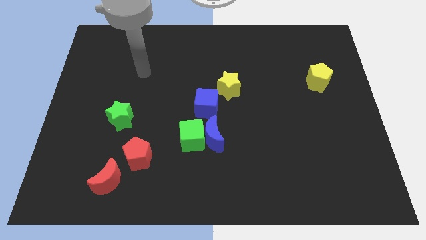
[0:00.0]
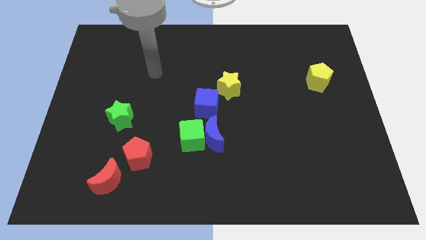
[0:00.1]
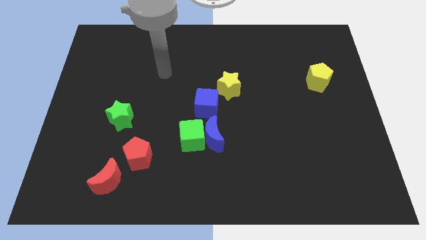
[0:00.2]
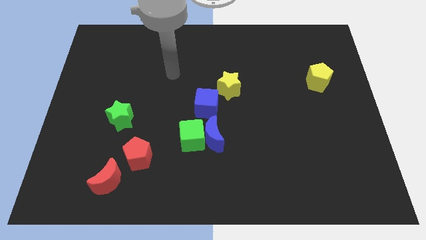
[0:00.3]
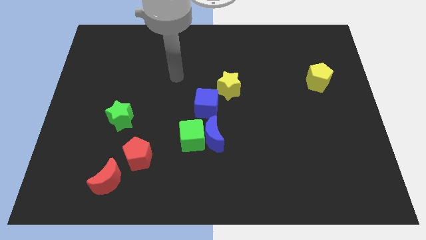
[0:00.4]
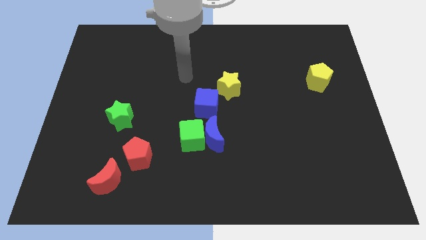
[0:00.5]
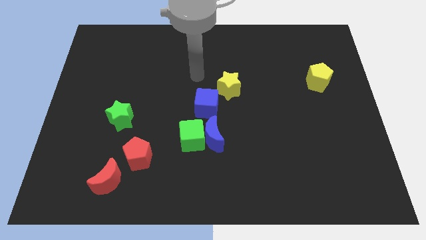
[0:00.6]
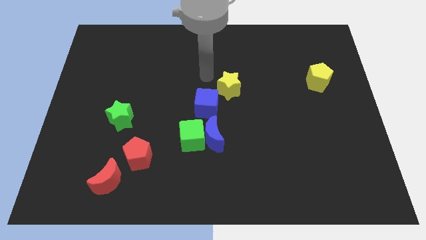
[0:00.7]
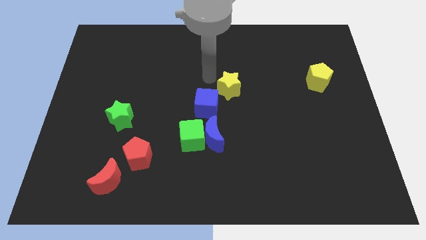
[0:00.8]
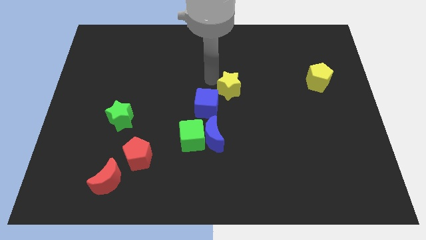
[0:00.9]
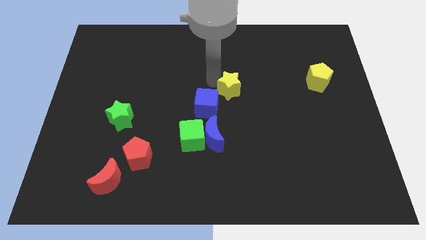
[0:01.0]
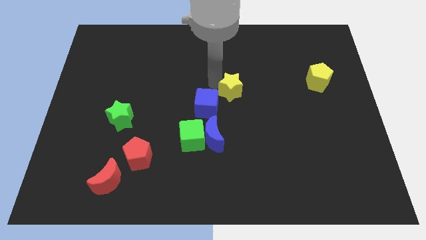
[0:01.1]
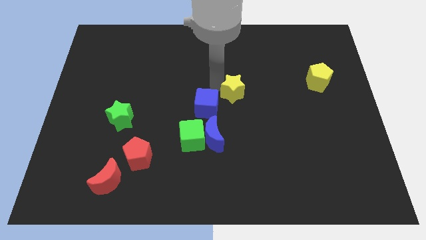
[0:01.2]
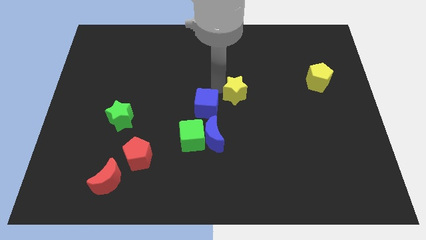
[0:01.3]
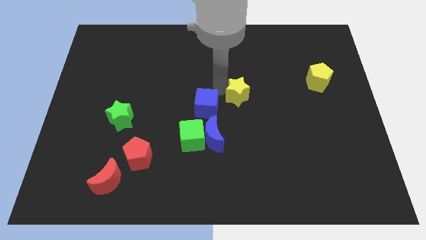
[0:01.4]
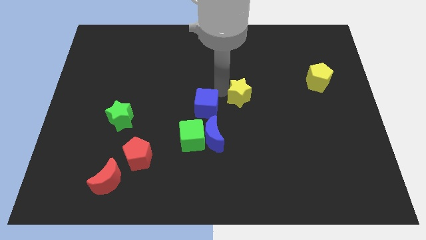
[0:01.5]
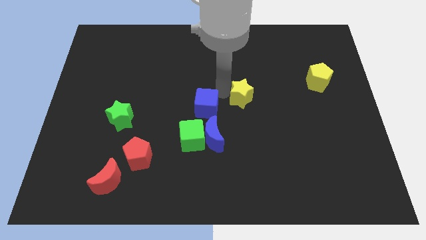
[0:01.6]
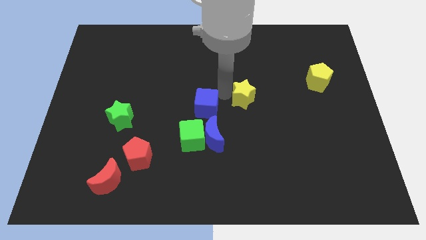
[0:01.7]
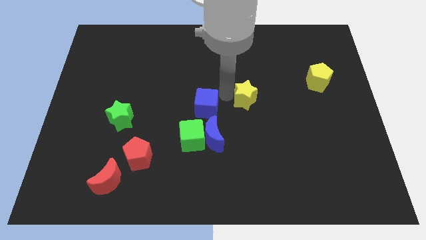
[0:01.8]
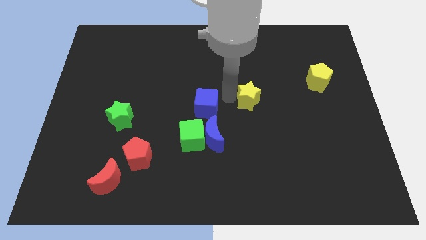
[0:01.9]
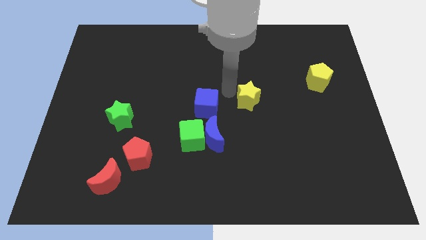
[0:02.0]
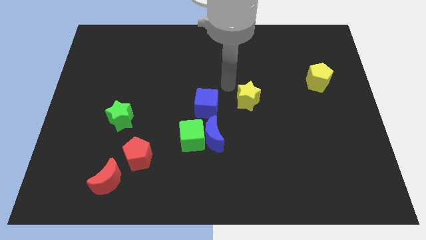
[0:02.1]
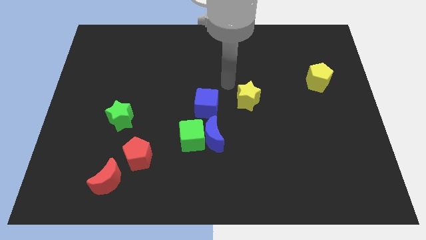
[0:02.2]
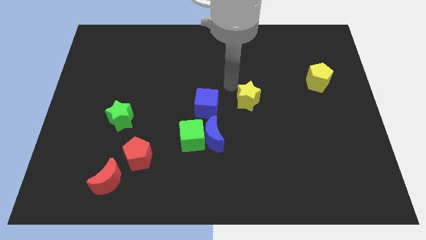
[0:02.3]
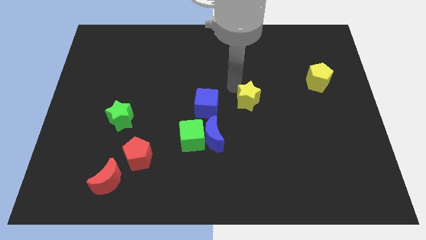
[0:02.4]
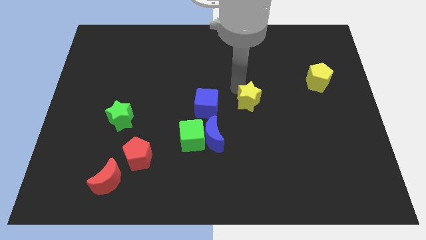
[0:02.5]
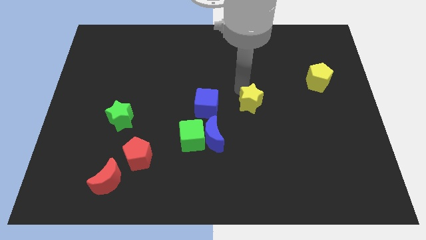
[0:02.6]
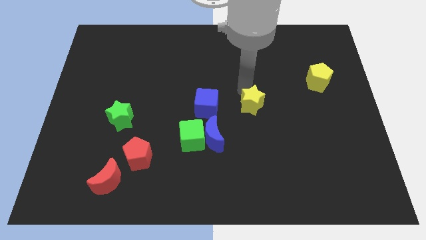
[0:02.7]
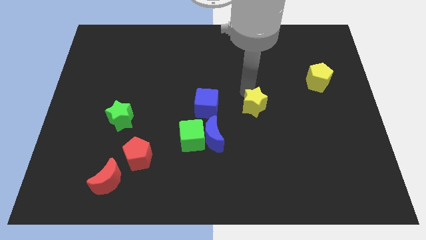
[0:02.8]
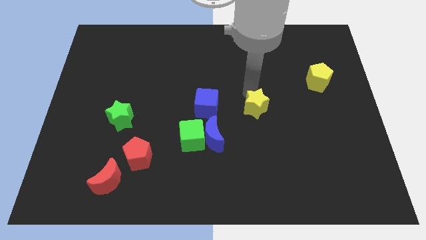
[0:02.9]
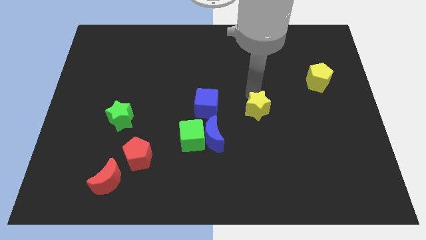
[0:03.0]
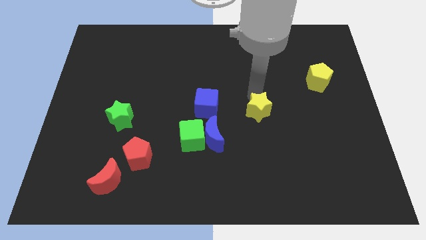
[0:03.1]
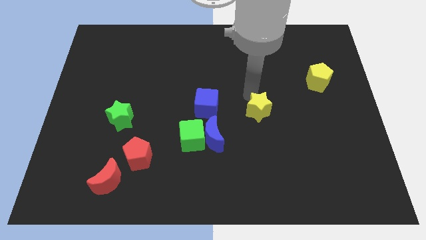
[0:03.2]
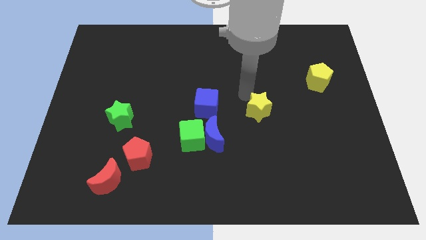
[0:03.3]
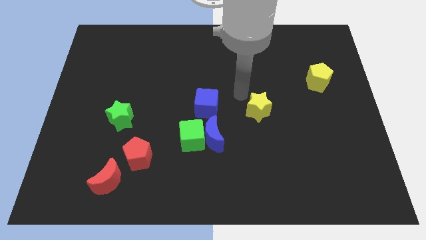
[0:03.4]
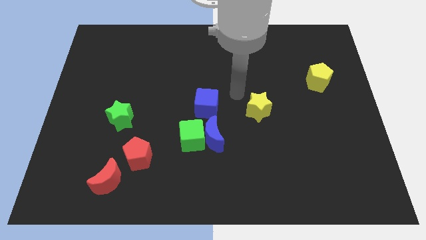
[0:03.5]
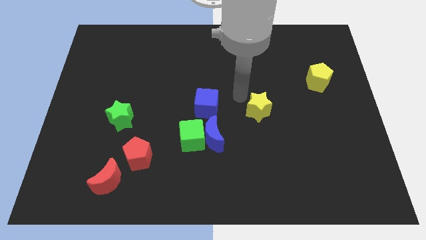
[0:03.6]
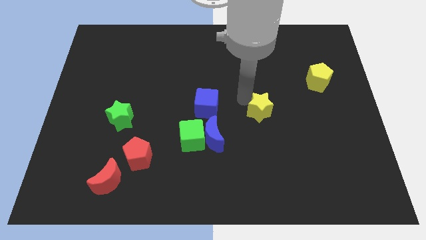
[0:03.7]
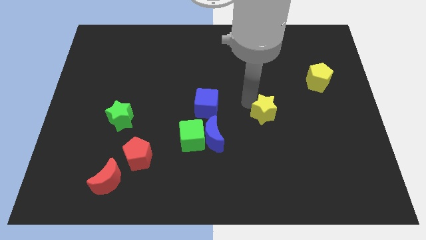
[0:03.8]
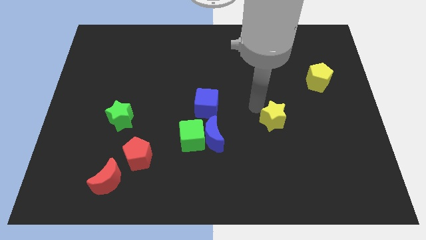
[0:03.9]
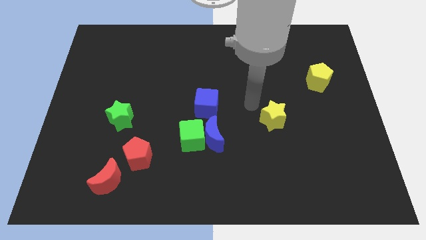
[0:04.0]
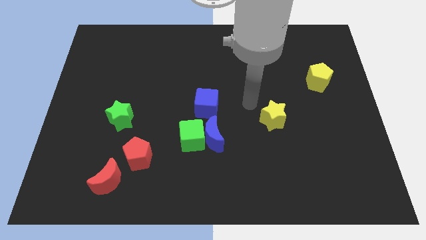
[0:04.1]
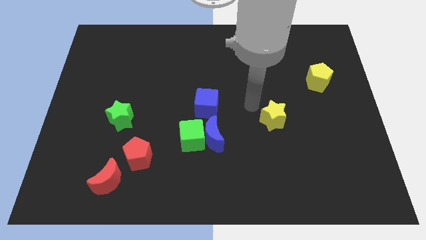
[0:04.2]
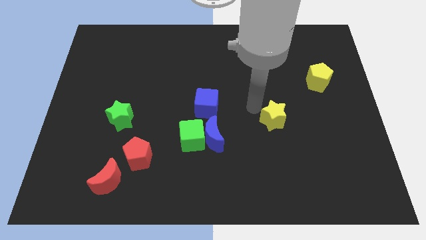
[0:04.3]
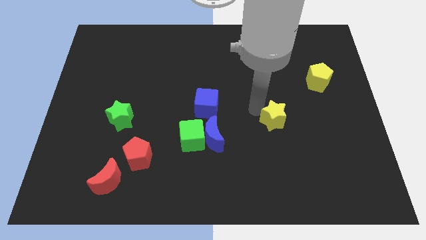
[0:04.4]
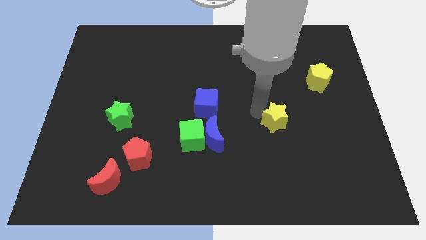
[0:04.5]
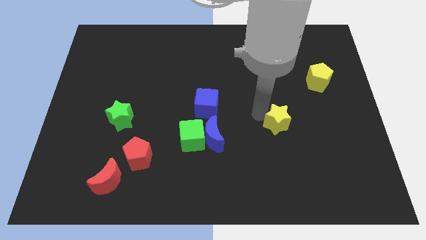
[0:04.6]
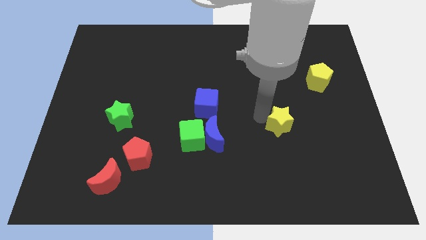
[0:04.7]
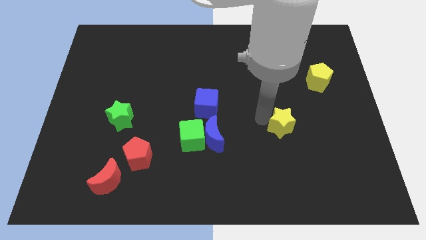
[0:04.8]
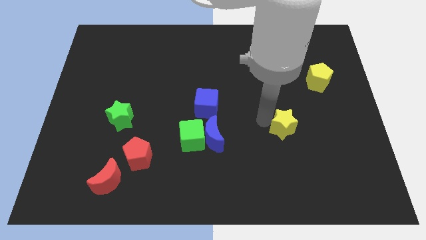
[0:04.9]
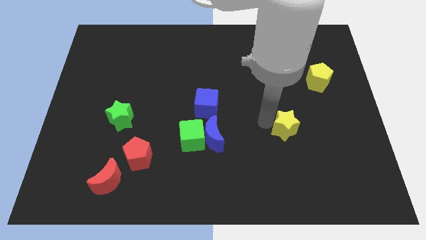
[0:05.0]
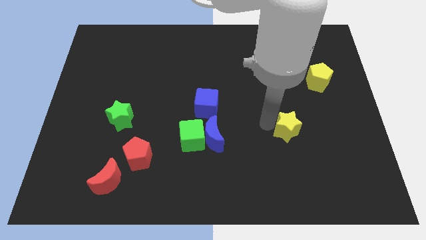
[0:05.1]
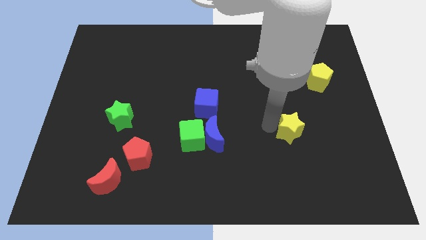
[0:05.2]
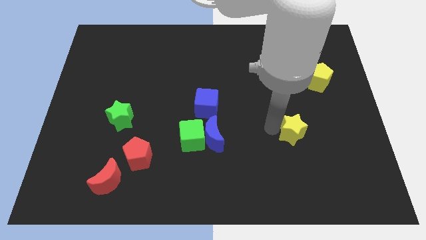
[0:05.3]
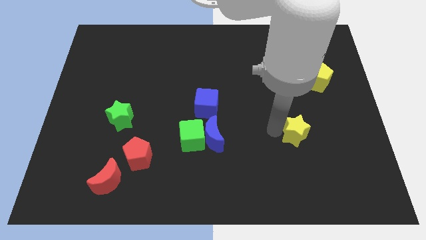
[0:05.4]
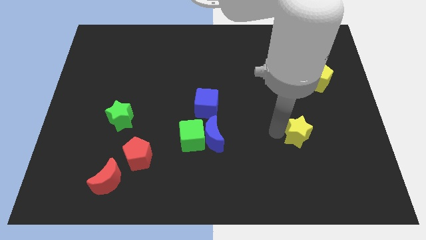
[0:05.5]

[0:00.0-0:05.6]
push the yellow star diagonally down and to the right

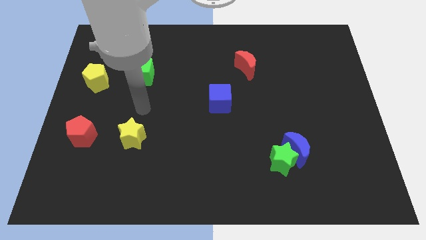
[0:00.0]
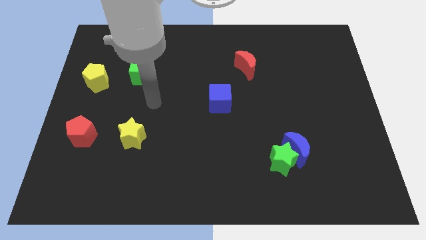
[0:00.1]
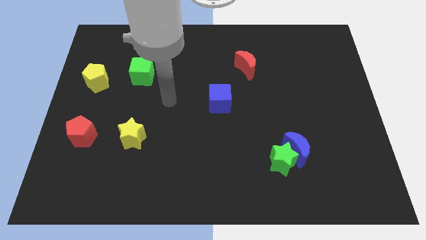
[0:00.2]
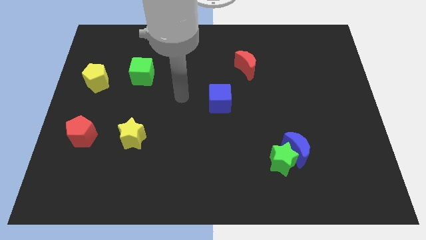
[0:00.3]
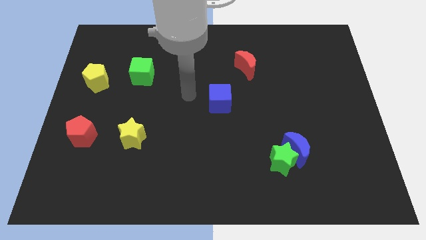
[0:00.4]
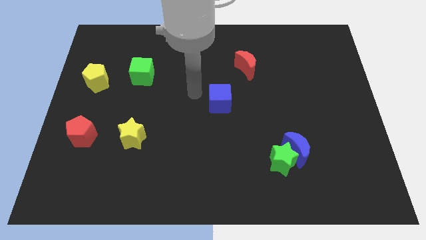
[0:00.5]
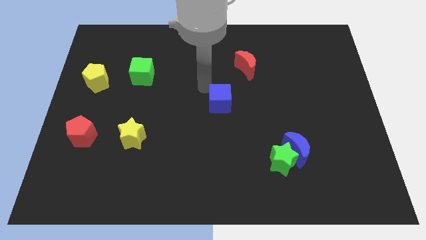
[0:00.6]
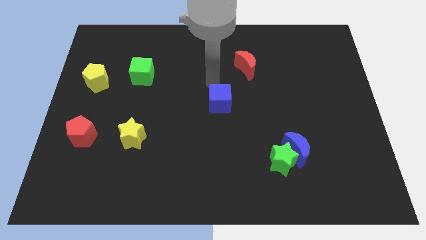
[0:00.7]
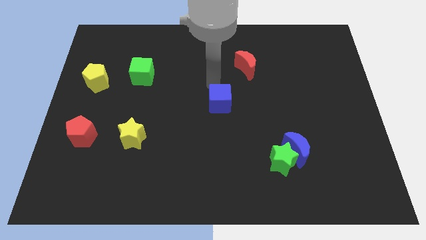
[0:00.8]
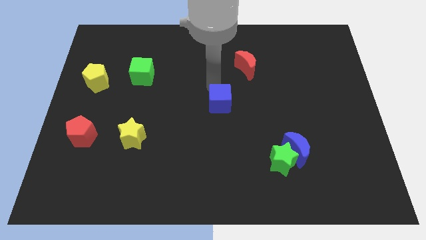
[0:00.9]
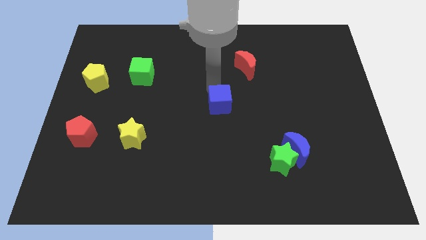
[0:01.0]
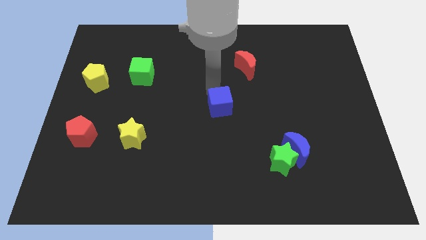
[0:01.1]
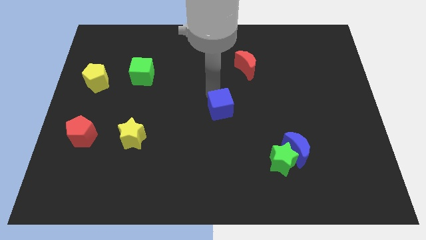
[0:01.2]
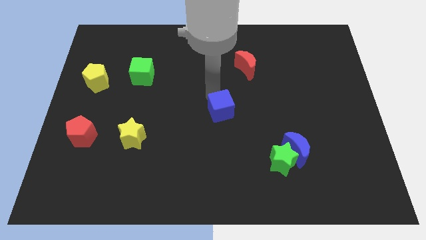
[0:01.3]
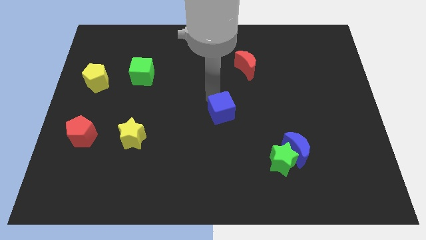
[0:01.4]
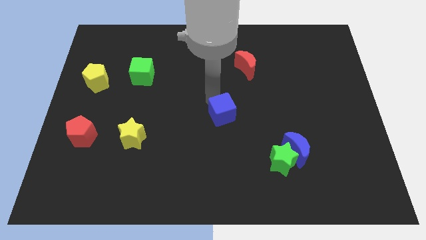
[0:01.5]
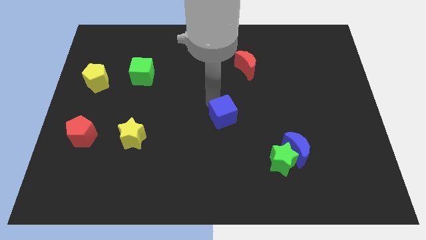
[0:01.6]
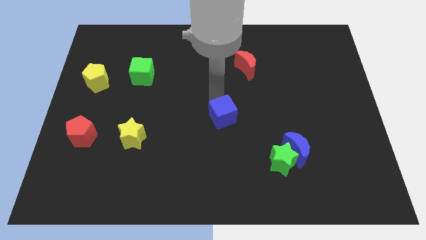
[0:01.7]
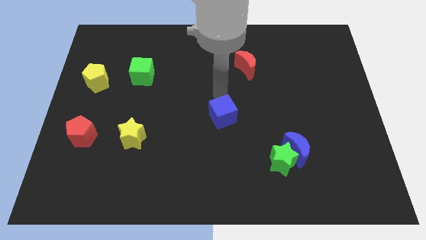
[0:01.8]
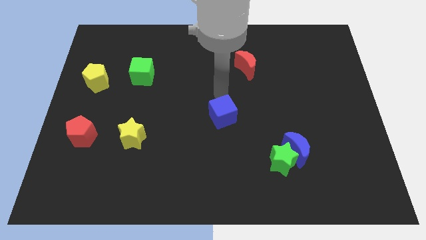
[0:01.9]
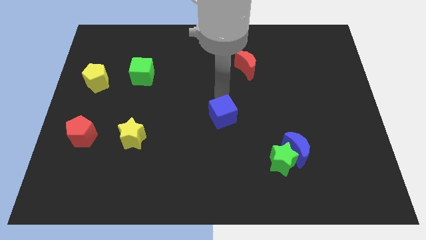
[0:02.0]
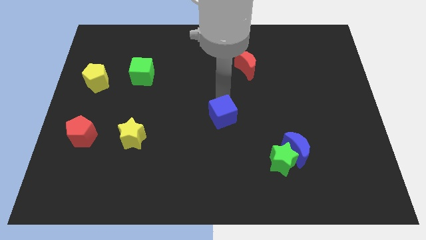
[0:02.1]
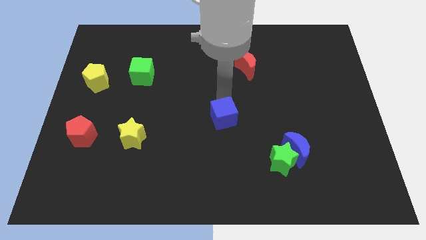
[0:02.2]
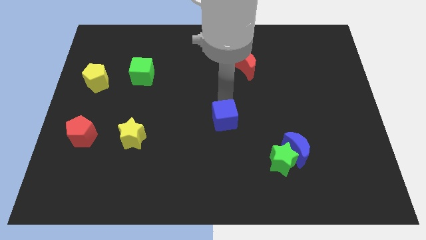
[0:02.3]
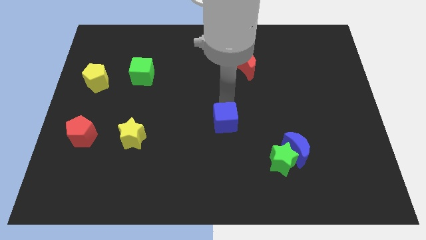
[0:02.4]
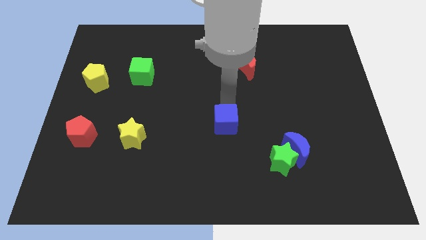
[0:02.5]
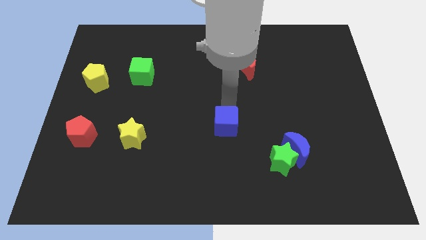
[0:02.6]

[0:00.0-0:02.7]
move the blue cube down a bit
